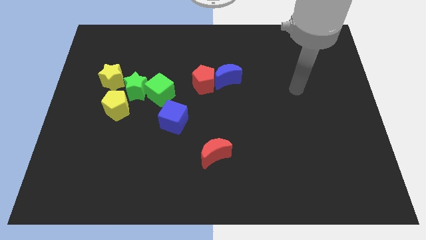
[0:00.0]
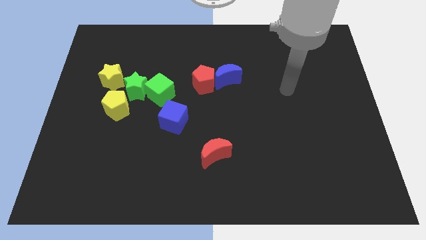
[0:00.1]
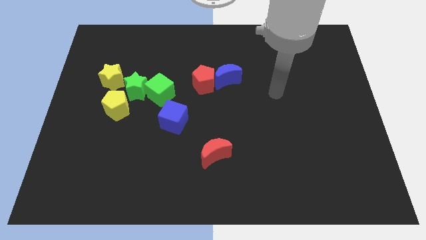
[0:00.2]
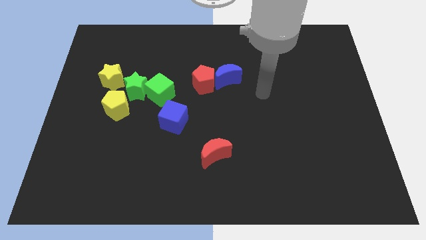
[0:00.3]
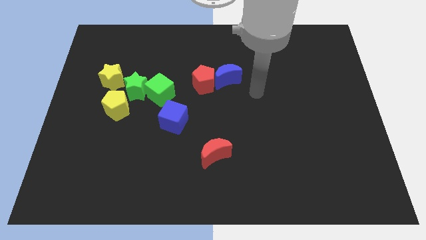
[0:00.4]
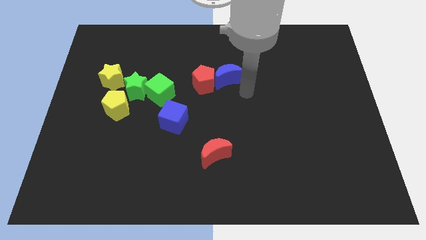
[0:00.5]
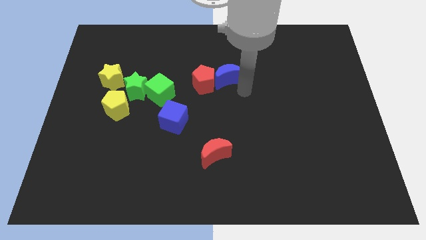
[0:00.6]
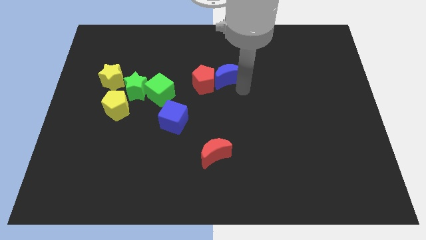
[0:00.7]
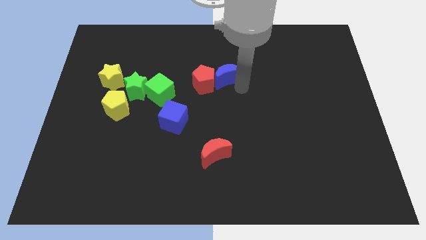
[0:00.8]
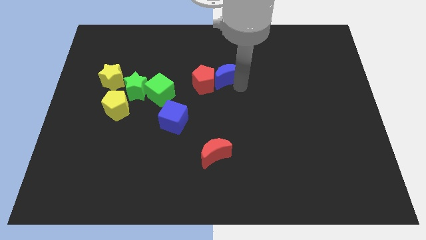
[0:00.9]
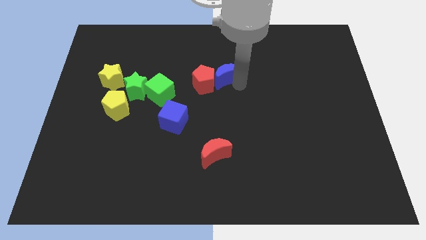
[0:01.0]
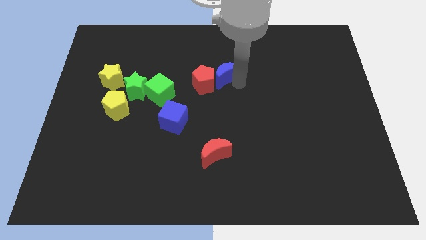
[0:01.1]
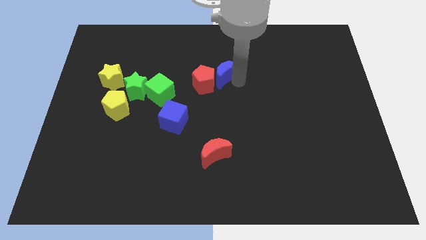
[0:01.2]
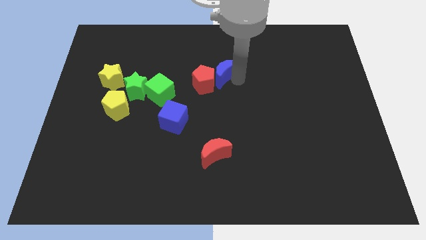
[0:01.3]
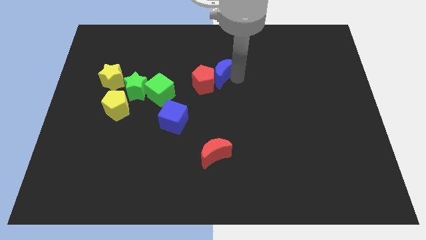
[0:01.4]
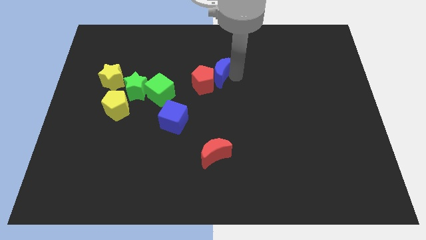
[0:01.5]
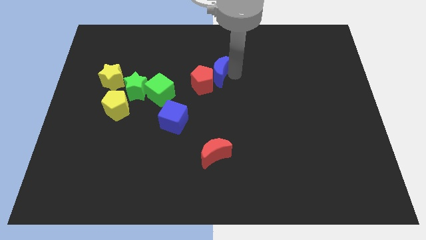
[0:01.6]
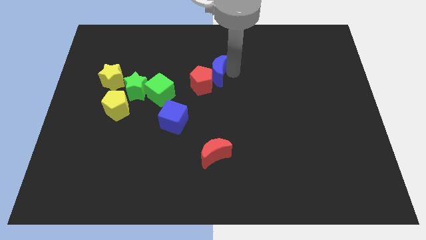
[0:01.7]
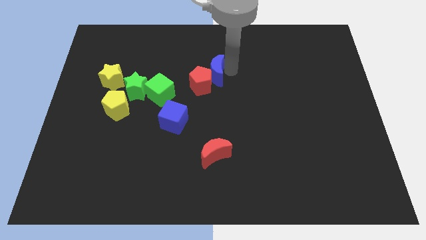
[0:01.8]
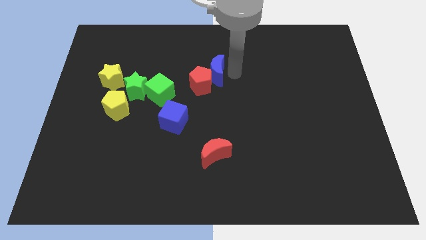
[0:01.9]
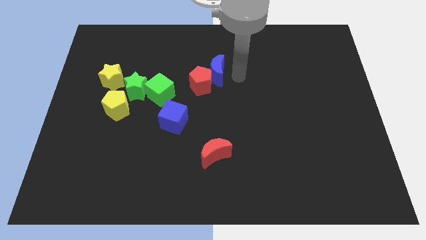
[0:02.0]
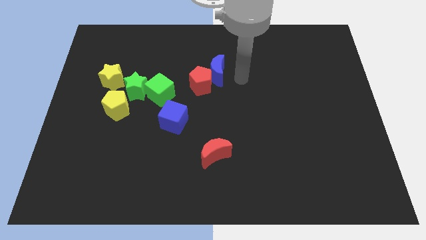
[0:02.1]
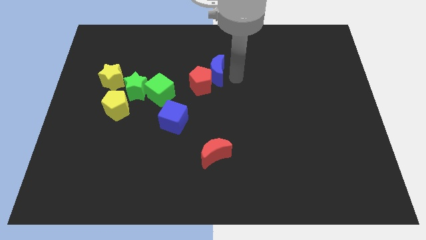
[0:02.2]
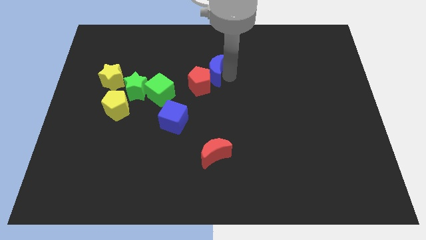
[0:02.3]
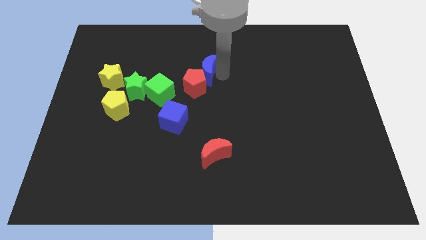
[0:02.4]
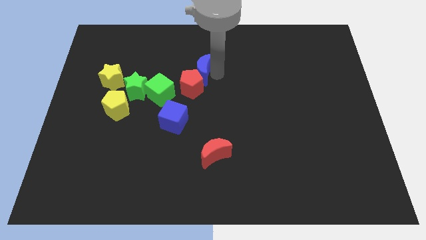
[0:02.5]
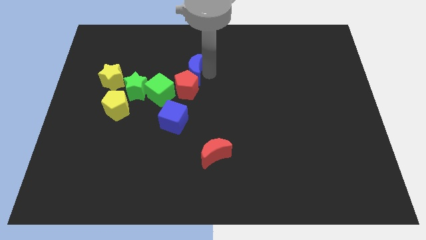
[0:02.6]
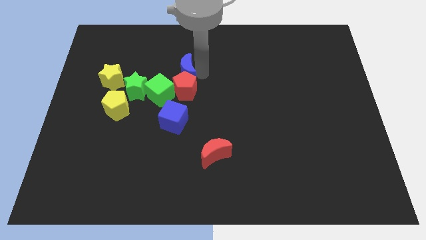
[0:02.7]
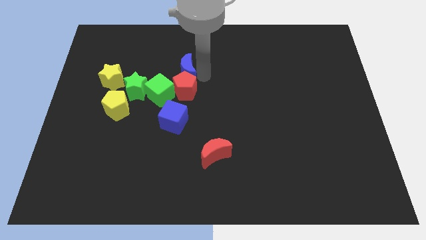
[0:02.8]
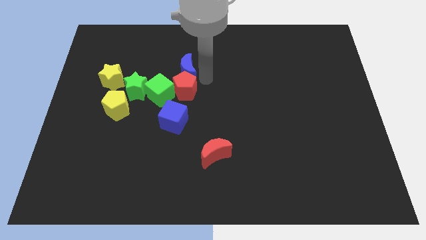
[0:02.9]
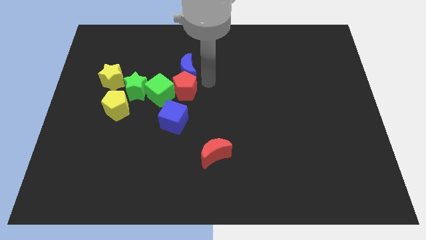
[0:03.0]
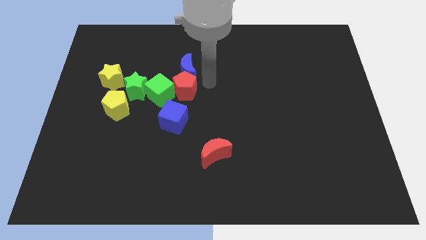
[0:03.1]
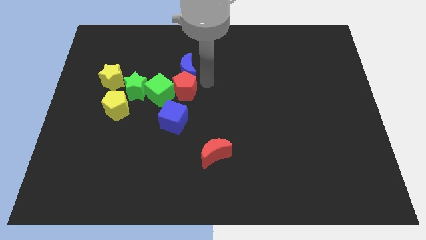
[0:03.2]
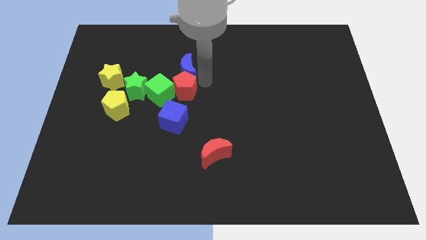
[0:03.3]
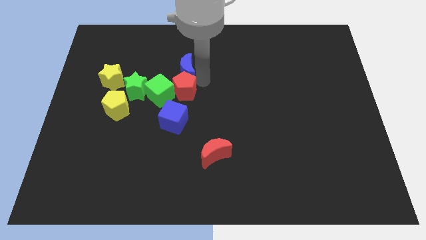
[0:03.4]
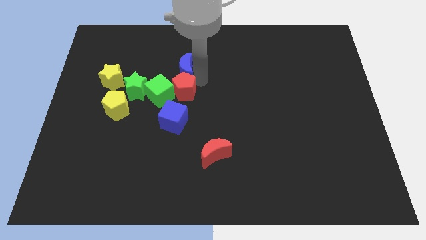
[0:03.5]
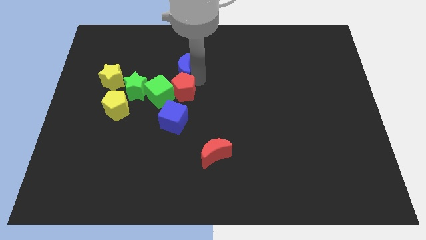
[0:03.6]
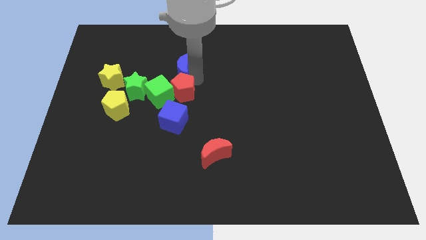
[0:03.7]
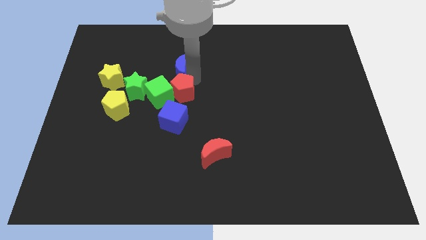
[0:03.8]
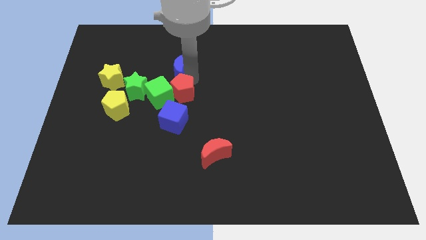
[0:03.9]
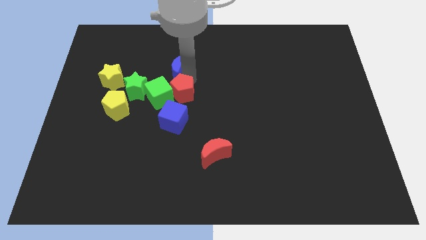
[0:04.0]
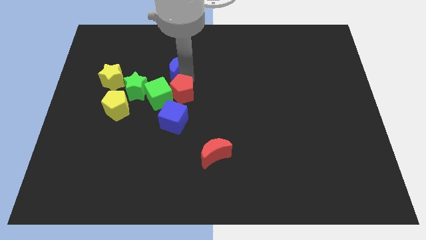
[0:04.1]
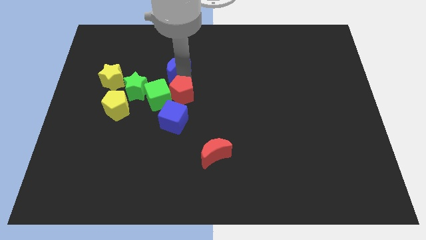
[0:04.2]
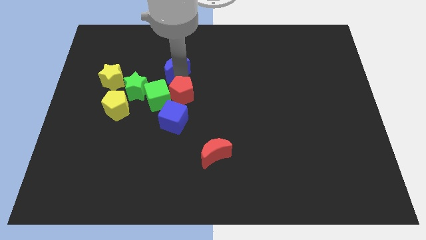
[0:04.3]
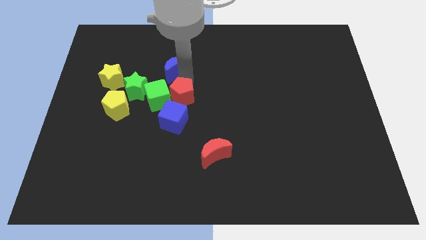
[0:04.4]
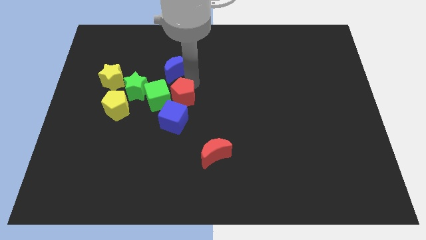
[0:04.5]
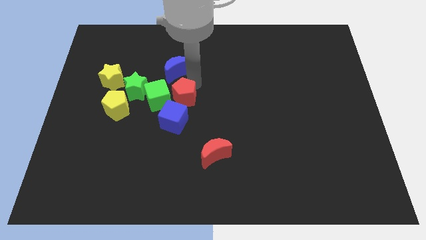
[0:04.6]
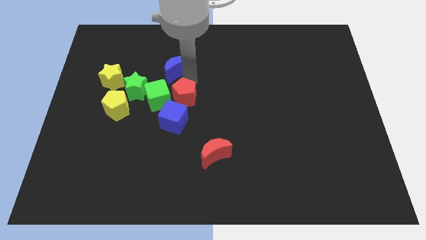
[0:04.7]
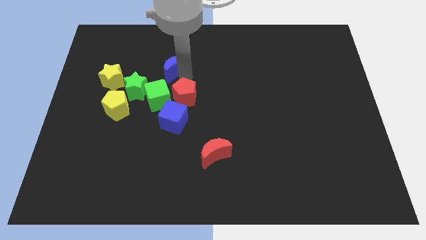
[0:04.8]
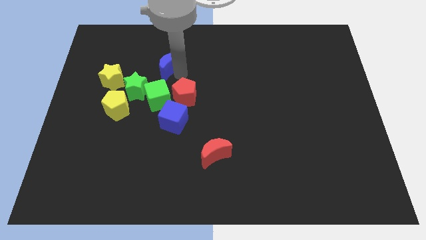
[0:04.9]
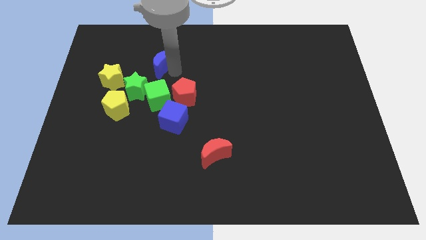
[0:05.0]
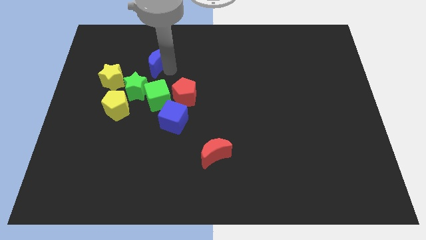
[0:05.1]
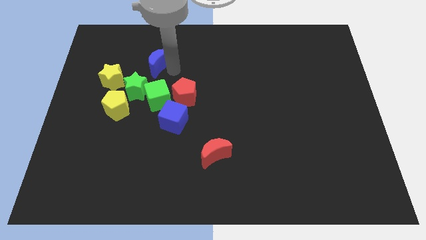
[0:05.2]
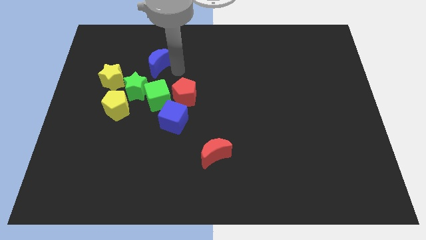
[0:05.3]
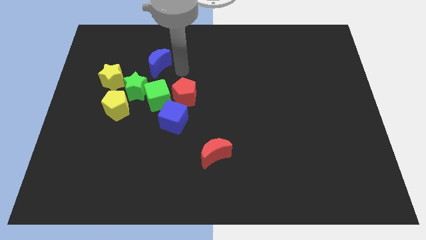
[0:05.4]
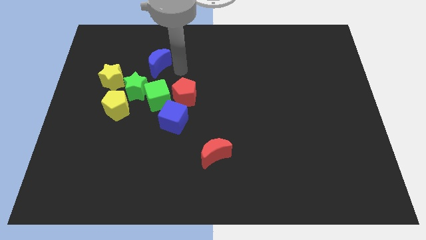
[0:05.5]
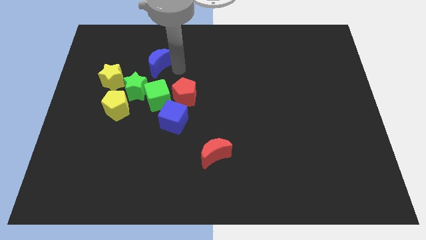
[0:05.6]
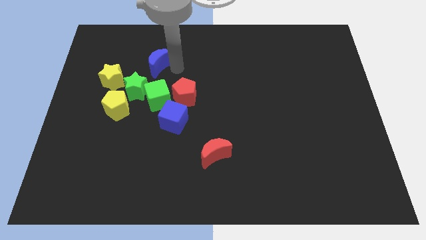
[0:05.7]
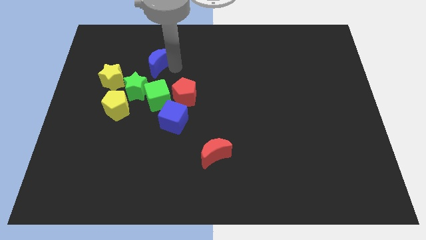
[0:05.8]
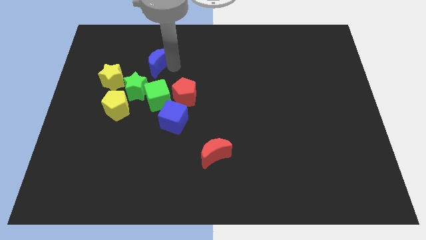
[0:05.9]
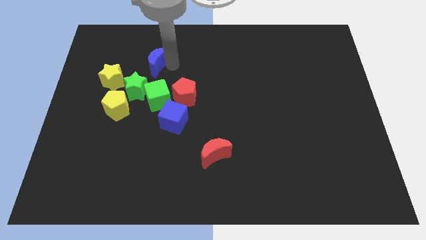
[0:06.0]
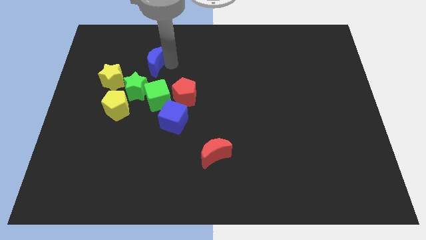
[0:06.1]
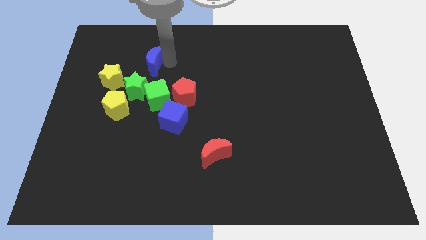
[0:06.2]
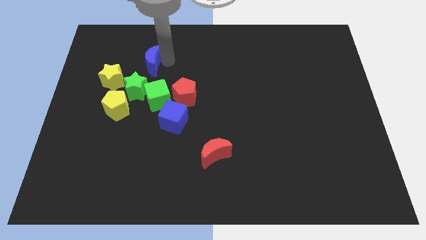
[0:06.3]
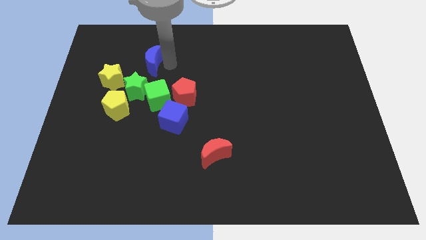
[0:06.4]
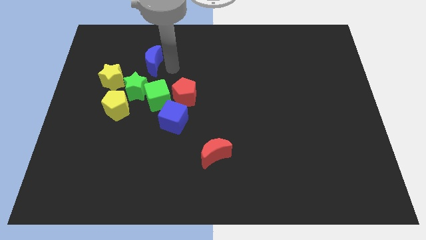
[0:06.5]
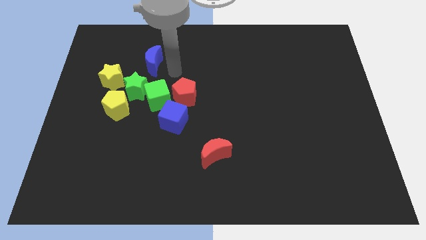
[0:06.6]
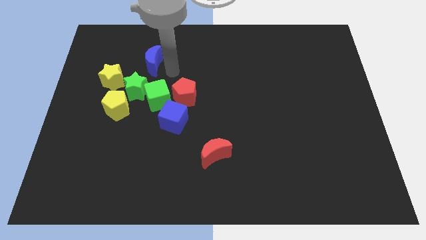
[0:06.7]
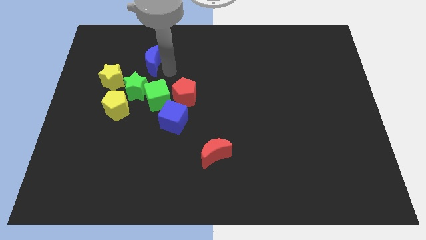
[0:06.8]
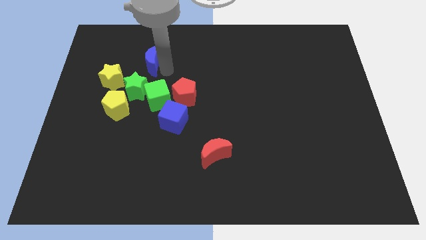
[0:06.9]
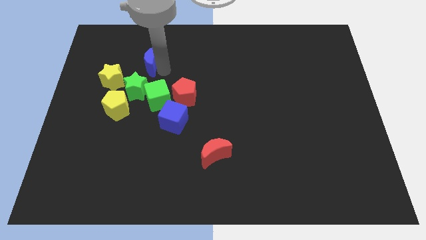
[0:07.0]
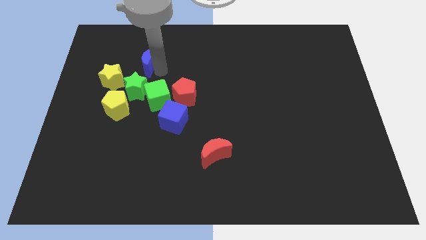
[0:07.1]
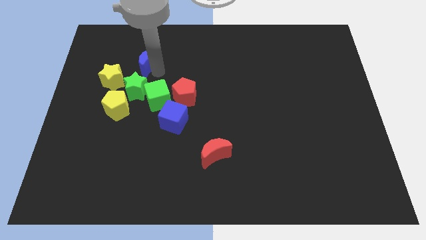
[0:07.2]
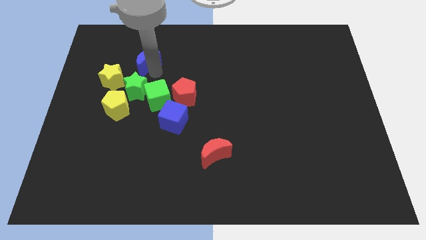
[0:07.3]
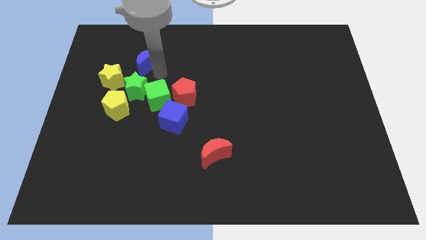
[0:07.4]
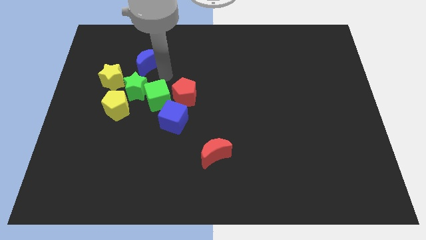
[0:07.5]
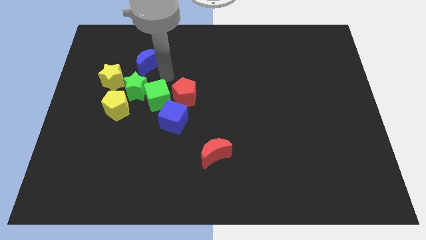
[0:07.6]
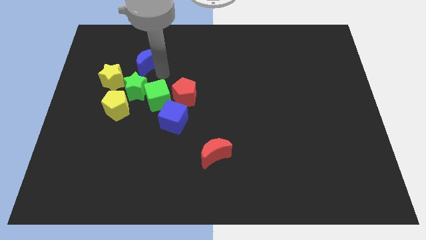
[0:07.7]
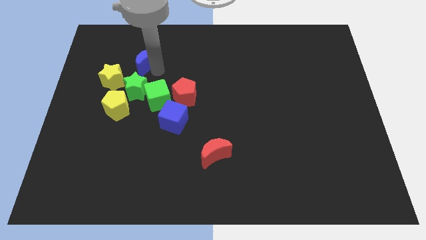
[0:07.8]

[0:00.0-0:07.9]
move the blue moon left

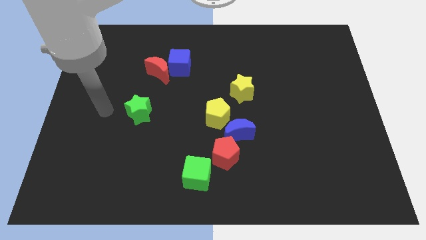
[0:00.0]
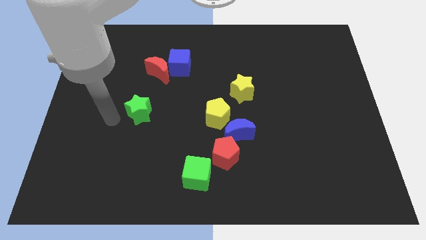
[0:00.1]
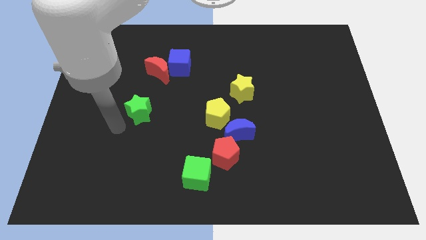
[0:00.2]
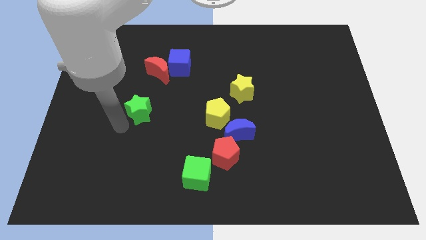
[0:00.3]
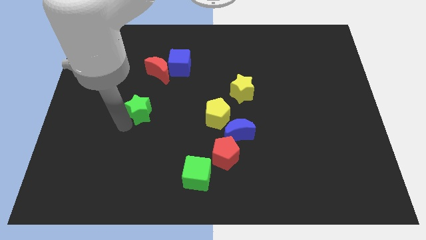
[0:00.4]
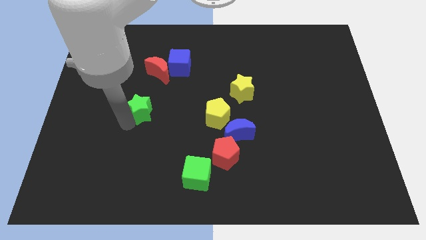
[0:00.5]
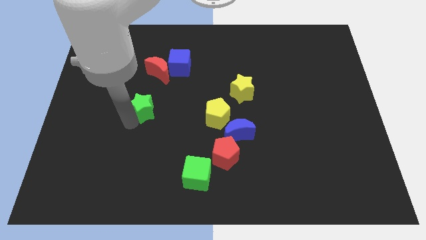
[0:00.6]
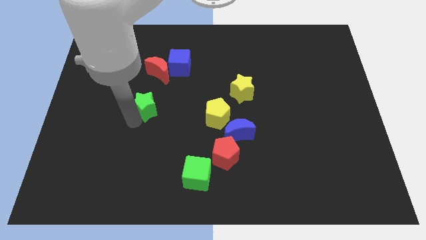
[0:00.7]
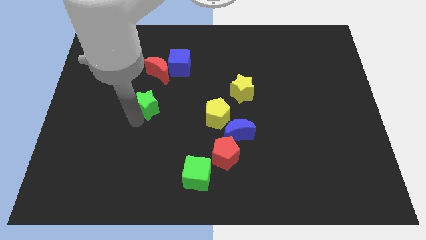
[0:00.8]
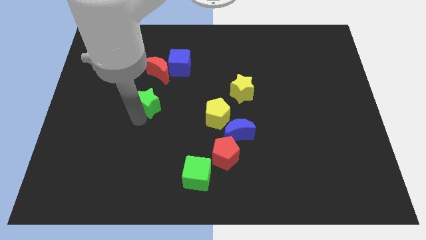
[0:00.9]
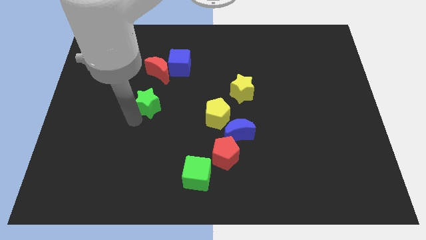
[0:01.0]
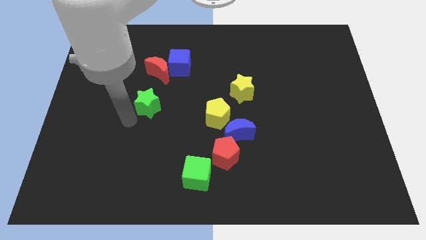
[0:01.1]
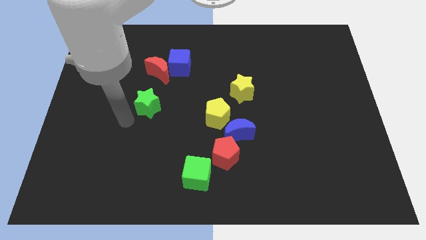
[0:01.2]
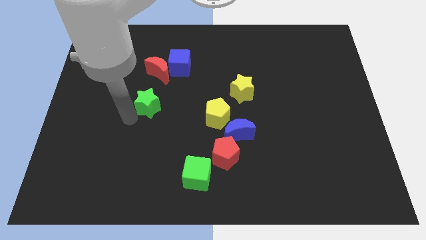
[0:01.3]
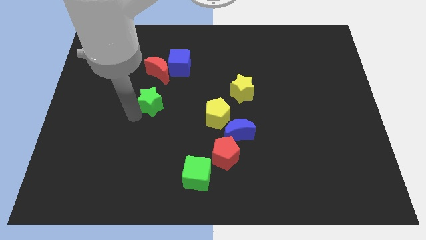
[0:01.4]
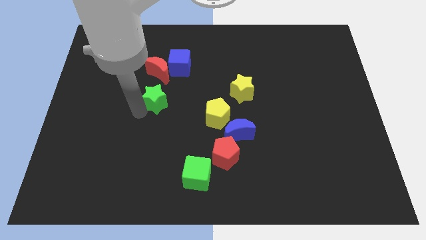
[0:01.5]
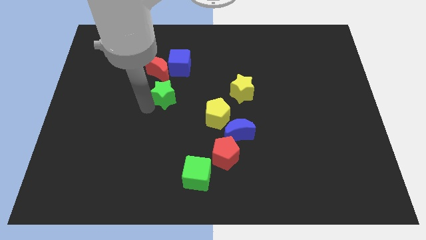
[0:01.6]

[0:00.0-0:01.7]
slightly move the green star up and right
